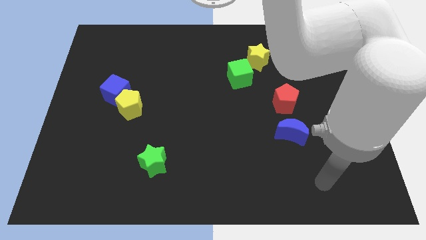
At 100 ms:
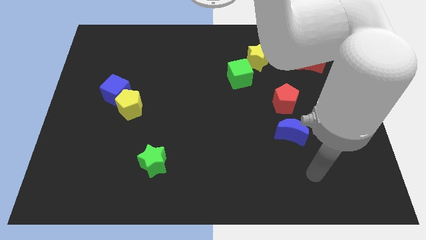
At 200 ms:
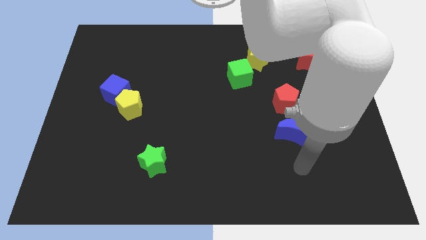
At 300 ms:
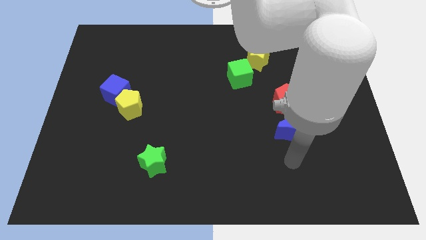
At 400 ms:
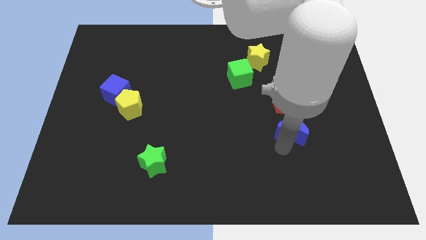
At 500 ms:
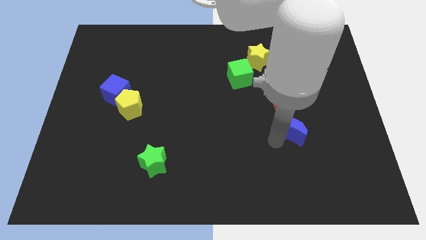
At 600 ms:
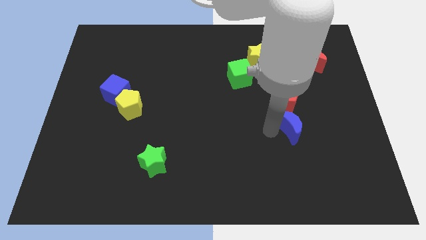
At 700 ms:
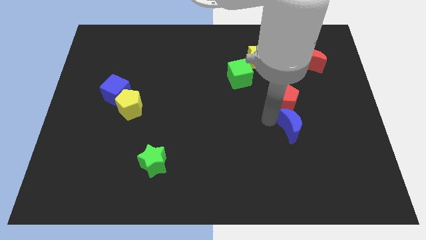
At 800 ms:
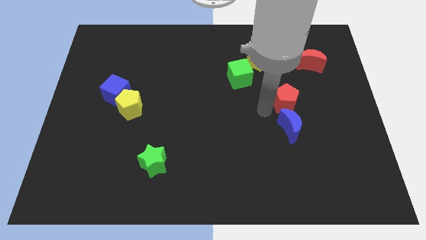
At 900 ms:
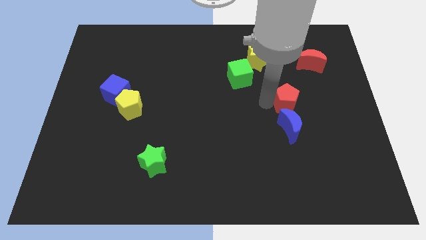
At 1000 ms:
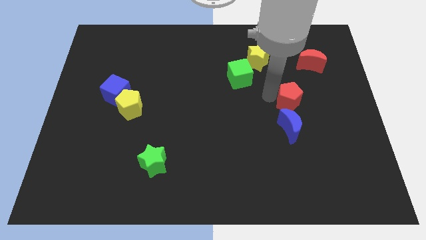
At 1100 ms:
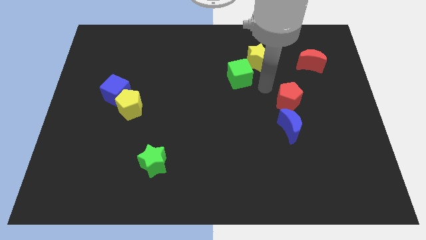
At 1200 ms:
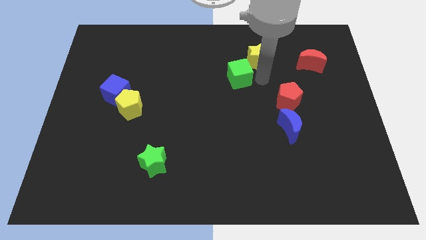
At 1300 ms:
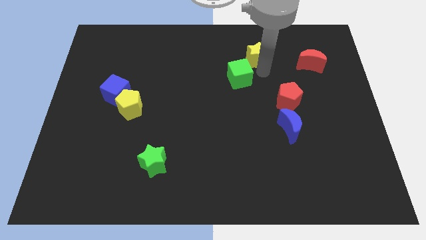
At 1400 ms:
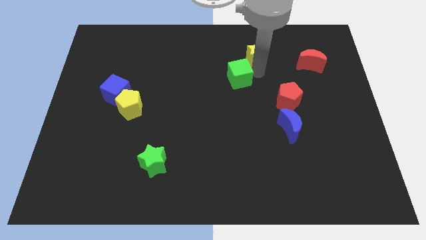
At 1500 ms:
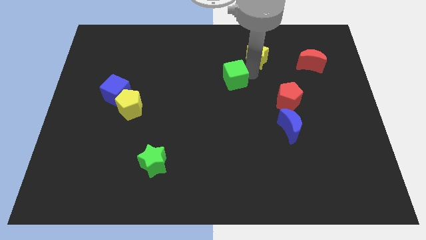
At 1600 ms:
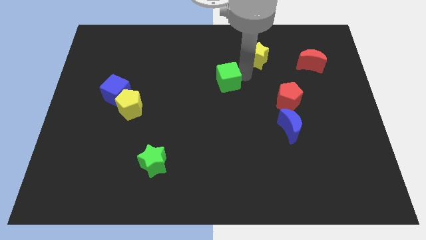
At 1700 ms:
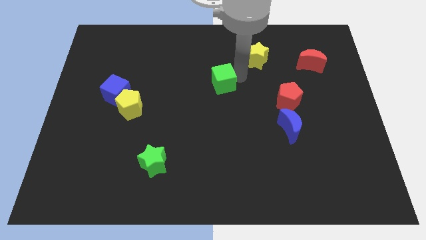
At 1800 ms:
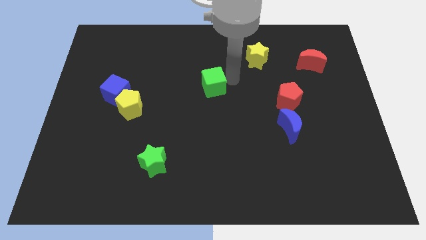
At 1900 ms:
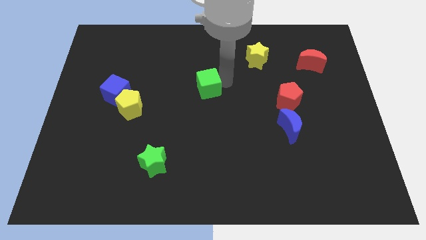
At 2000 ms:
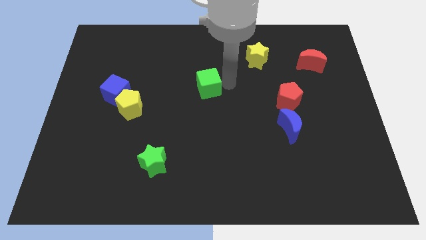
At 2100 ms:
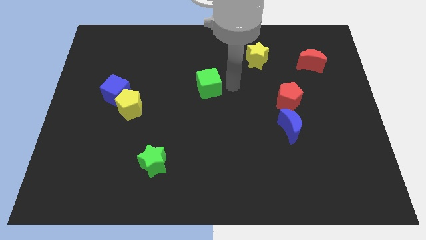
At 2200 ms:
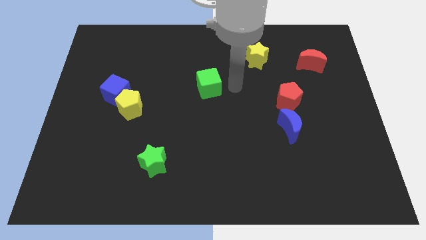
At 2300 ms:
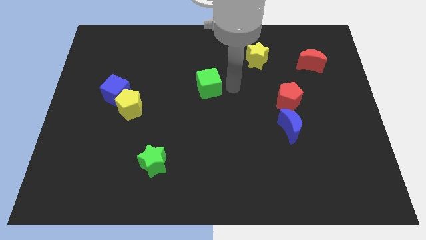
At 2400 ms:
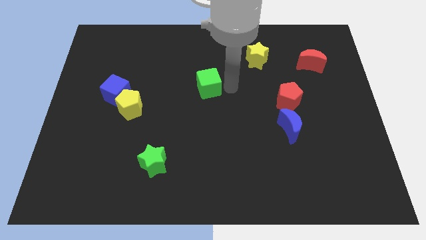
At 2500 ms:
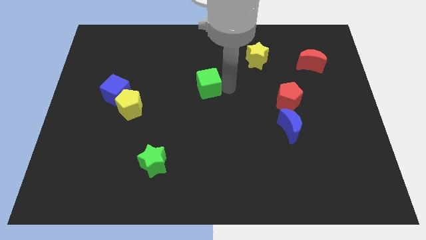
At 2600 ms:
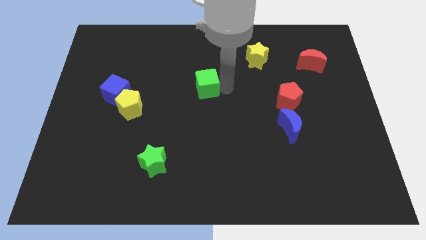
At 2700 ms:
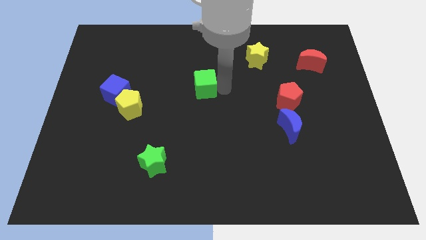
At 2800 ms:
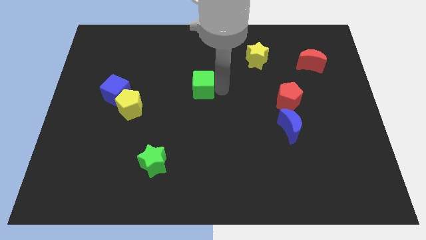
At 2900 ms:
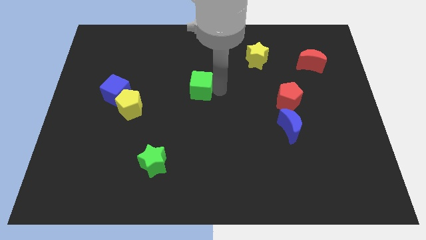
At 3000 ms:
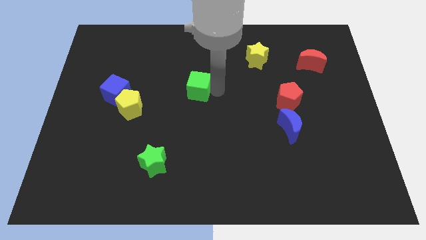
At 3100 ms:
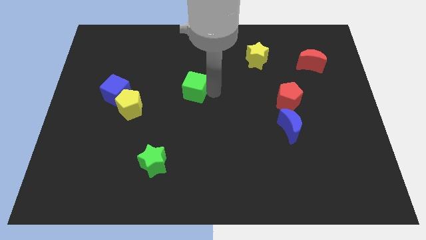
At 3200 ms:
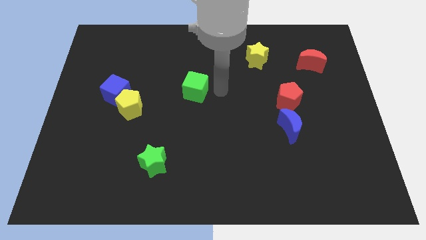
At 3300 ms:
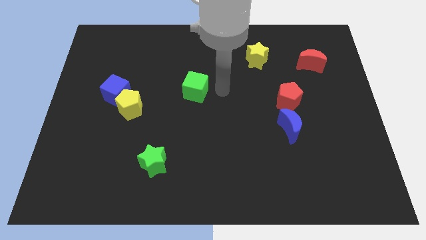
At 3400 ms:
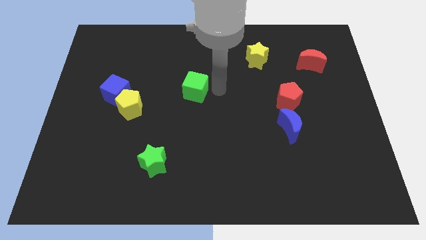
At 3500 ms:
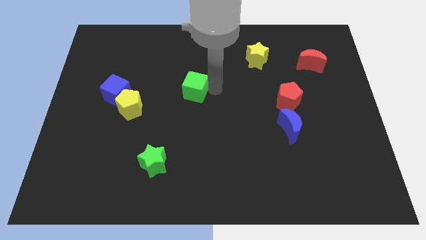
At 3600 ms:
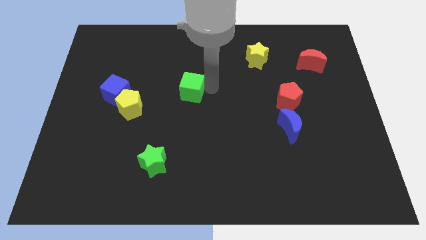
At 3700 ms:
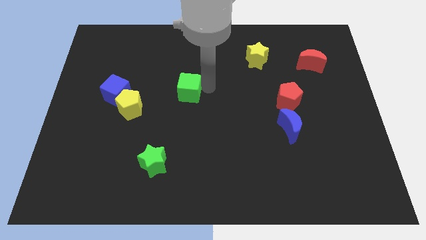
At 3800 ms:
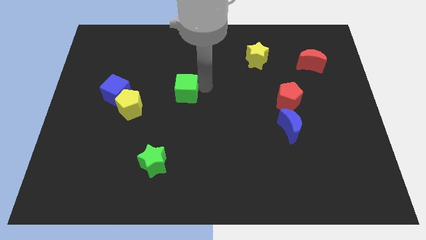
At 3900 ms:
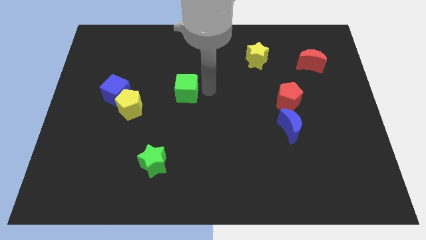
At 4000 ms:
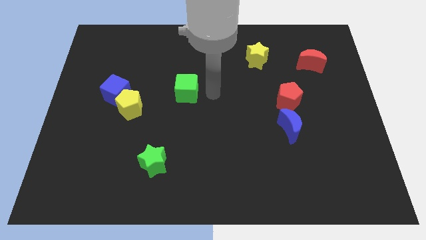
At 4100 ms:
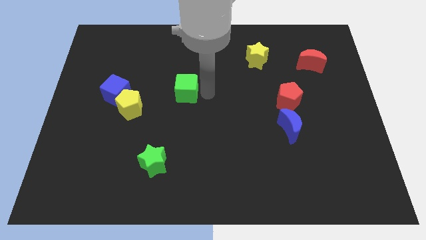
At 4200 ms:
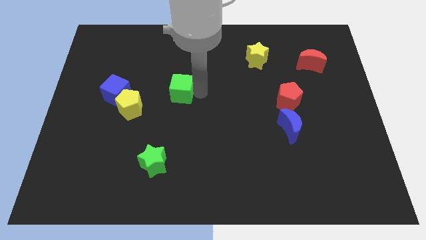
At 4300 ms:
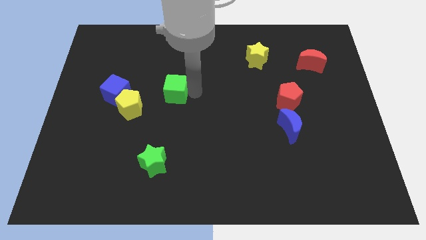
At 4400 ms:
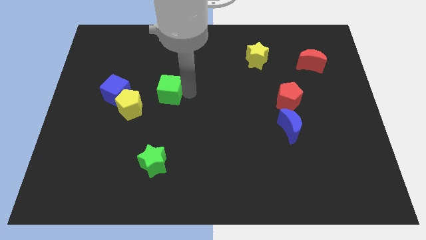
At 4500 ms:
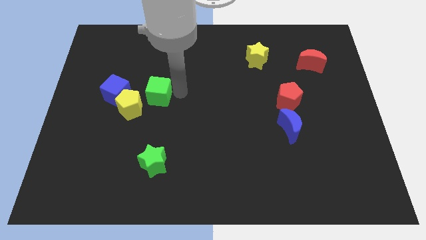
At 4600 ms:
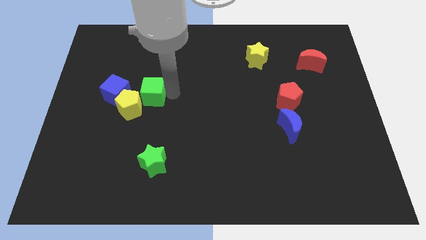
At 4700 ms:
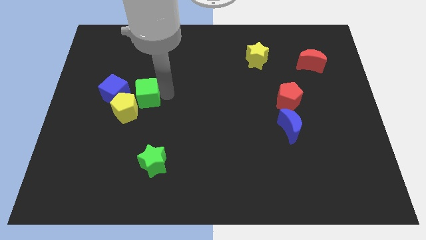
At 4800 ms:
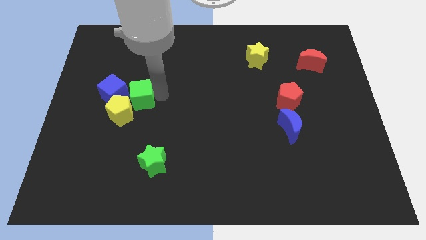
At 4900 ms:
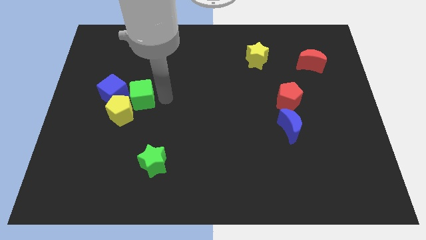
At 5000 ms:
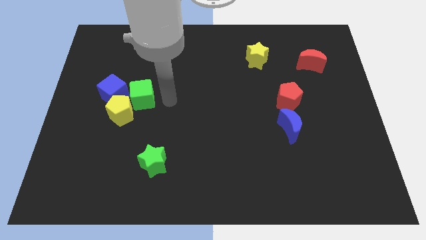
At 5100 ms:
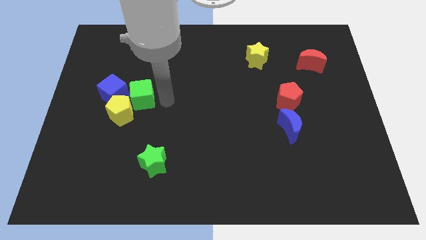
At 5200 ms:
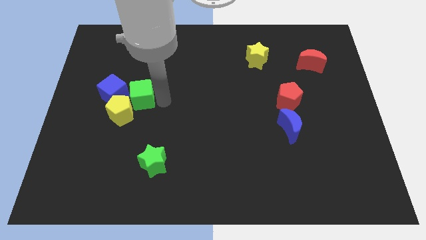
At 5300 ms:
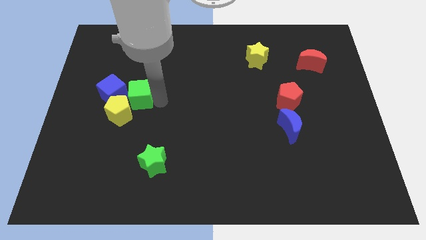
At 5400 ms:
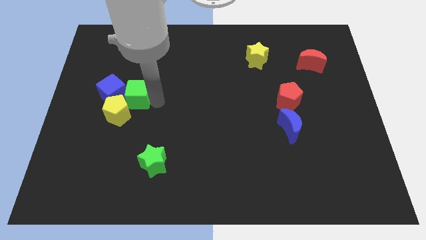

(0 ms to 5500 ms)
slide the green cube next to the blue cube

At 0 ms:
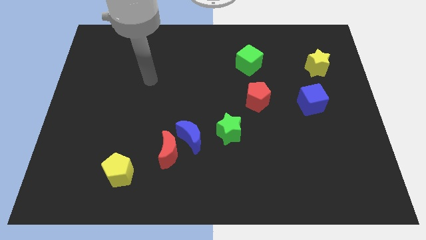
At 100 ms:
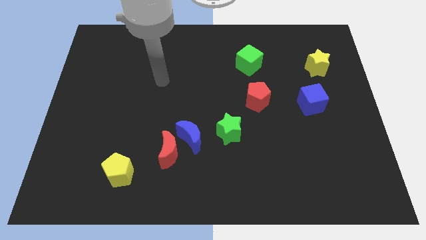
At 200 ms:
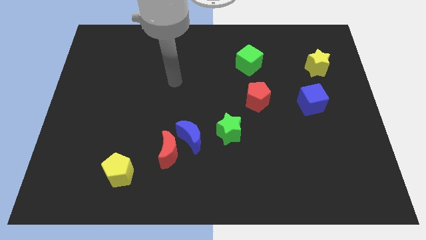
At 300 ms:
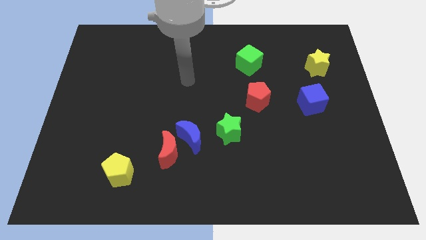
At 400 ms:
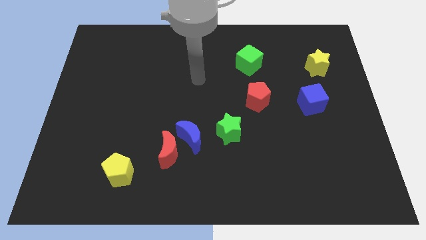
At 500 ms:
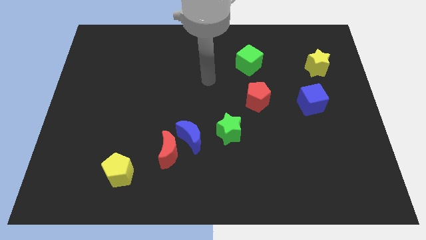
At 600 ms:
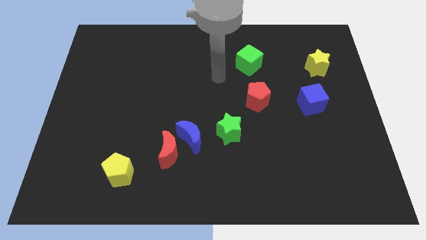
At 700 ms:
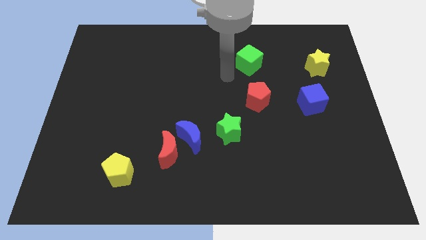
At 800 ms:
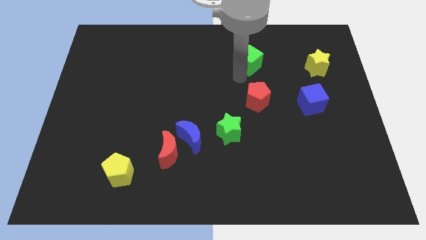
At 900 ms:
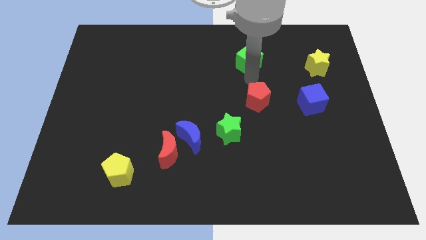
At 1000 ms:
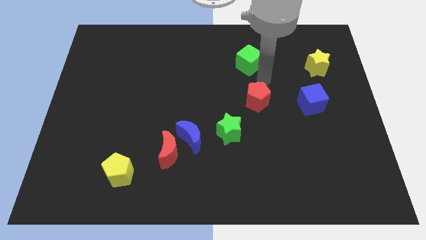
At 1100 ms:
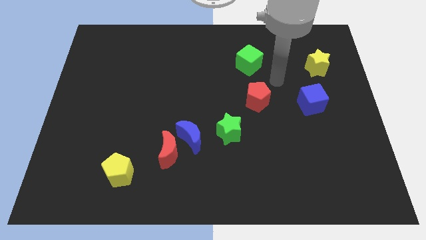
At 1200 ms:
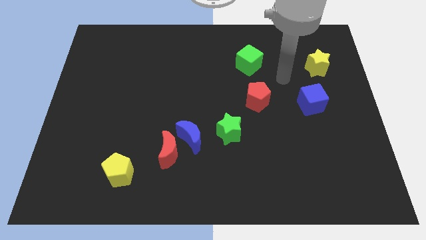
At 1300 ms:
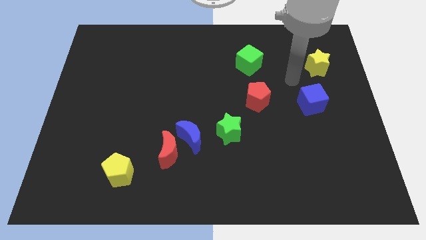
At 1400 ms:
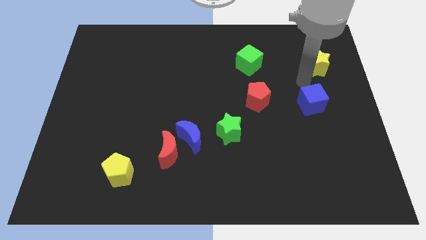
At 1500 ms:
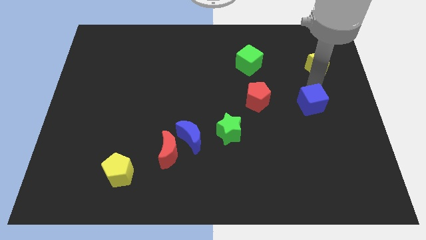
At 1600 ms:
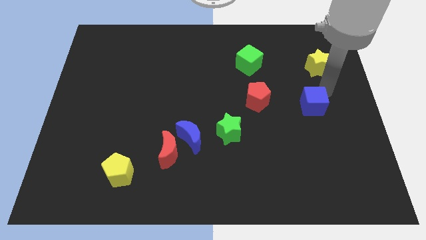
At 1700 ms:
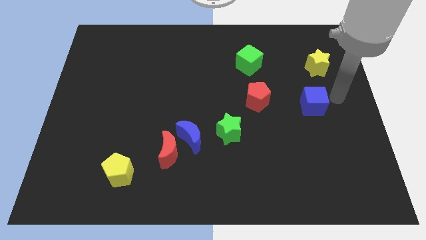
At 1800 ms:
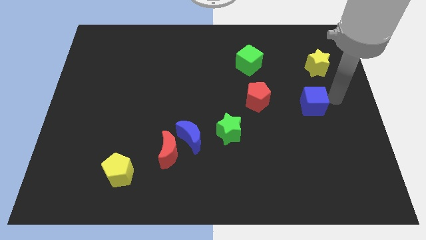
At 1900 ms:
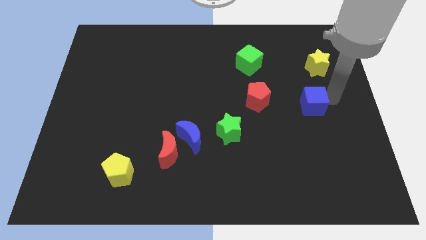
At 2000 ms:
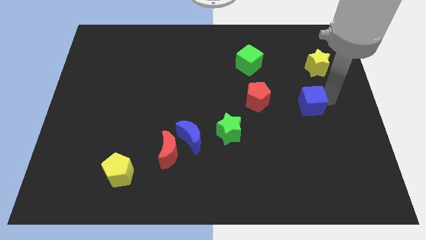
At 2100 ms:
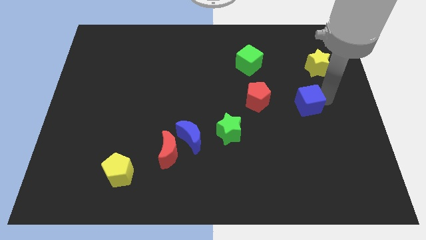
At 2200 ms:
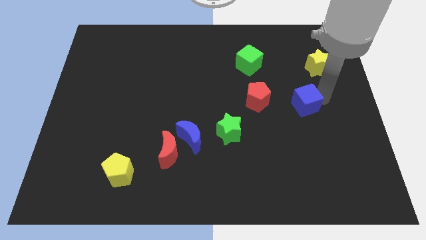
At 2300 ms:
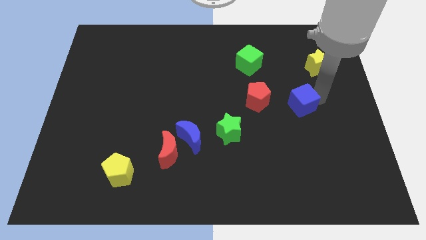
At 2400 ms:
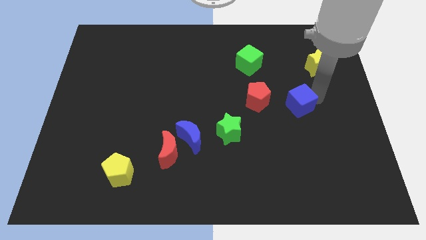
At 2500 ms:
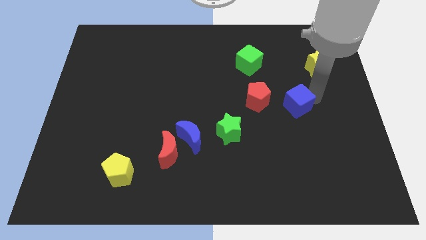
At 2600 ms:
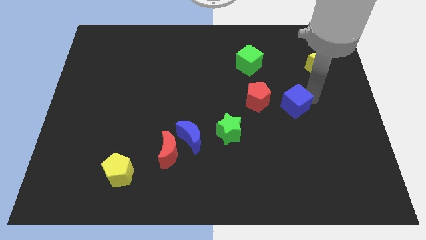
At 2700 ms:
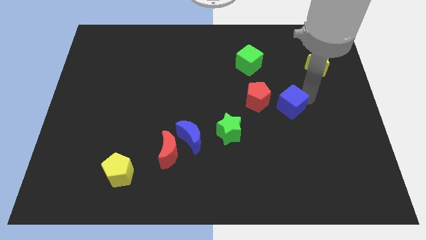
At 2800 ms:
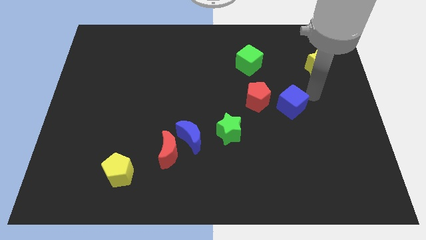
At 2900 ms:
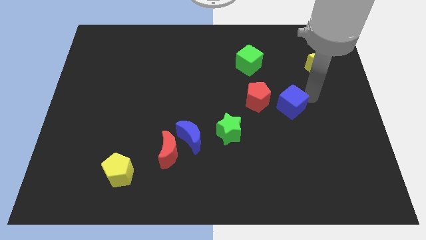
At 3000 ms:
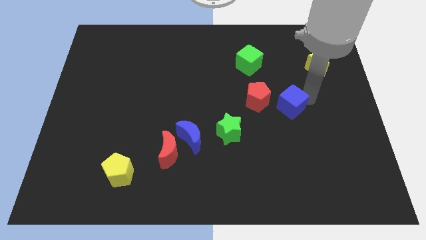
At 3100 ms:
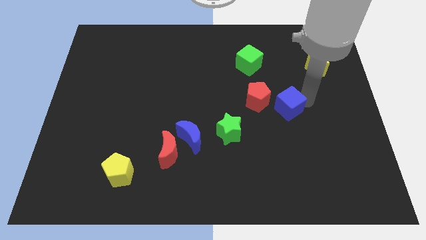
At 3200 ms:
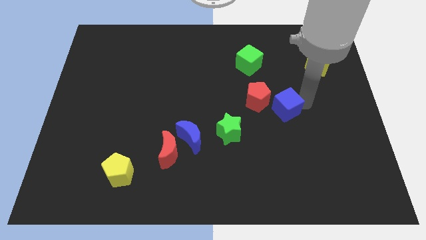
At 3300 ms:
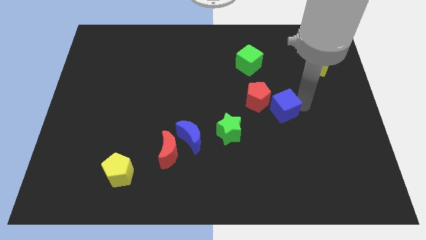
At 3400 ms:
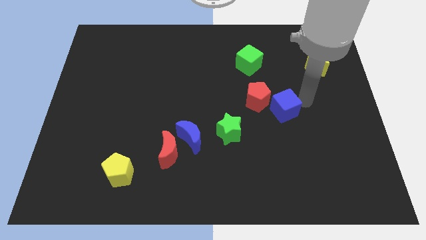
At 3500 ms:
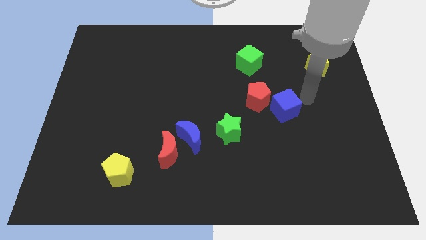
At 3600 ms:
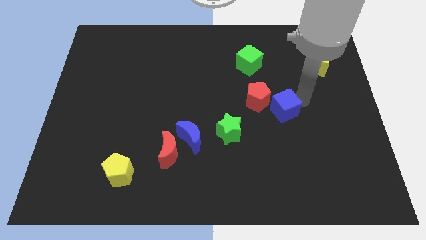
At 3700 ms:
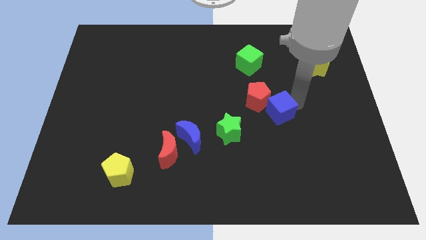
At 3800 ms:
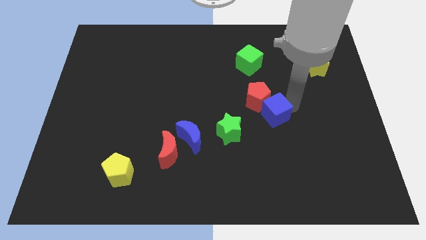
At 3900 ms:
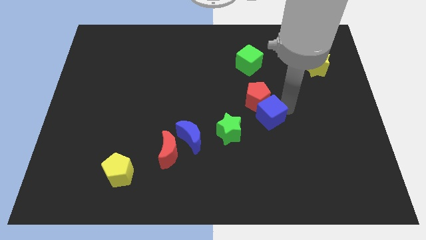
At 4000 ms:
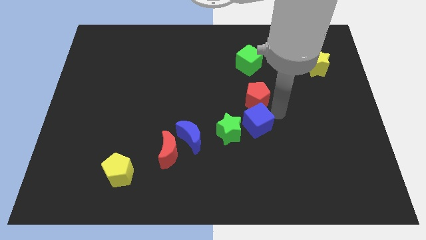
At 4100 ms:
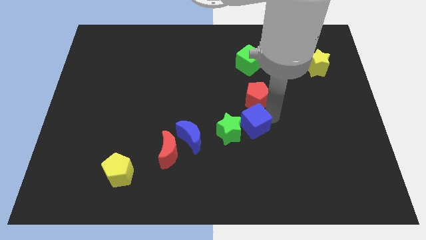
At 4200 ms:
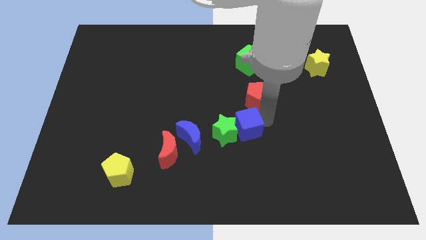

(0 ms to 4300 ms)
slide the blue cube next to the green star
